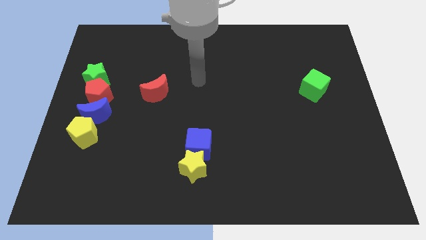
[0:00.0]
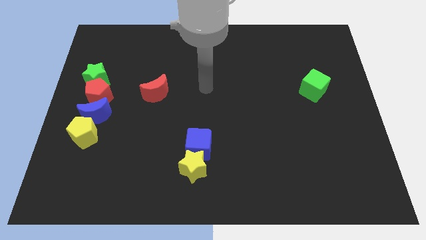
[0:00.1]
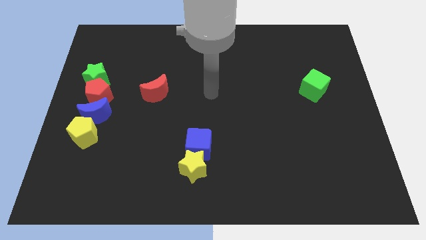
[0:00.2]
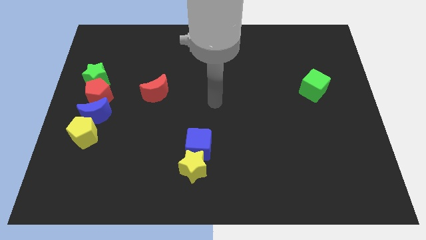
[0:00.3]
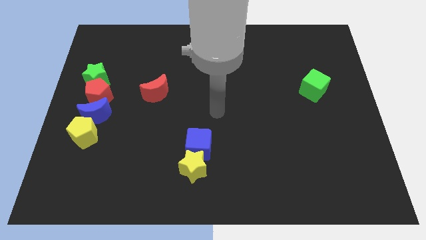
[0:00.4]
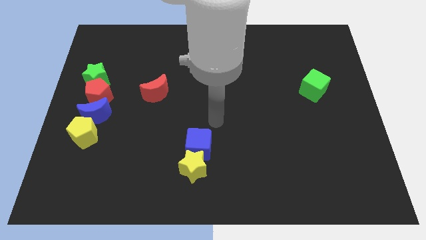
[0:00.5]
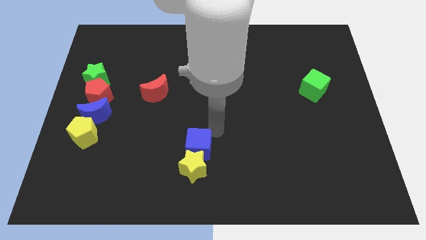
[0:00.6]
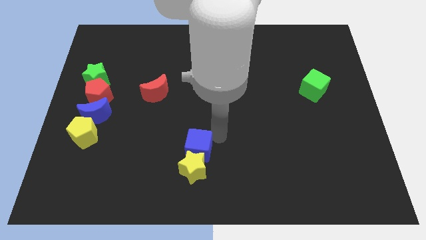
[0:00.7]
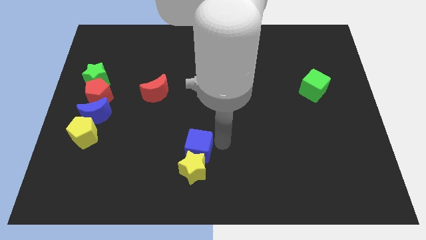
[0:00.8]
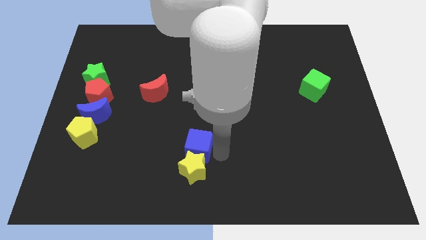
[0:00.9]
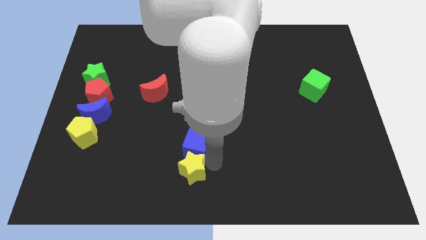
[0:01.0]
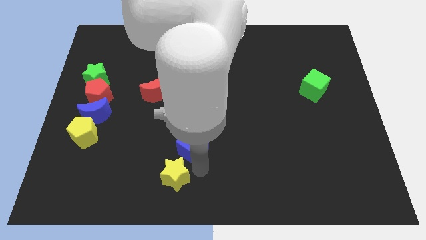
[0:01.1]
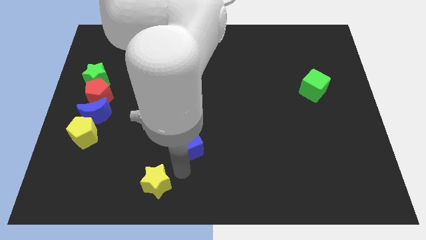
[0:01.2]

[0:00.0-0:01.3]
pull the blue cube apart from the yellow star

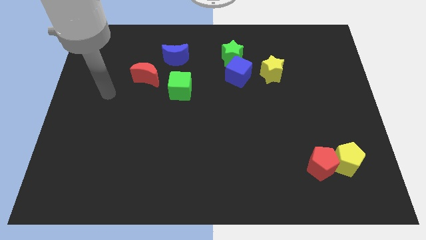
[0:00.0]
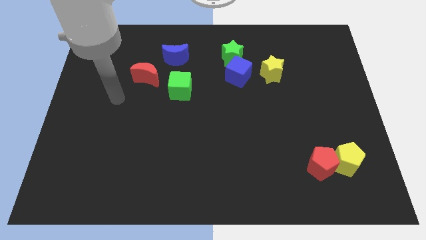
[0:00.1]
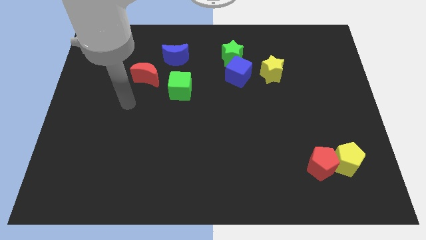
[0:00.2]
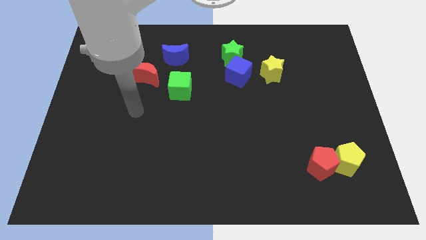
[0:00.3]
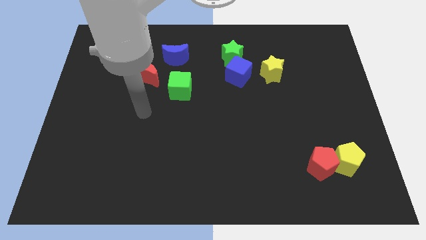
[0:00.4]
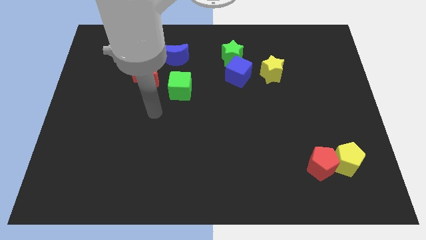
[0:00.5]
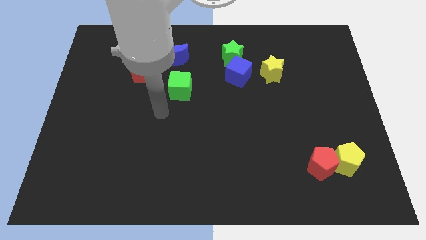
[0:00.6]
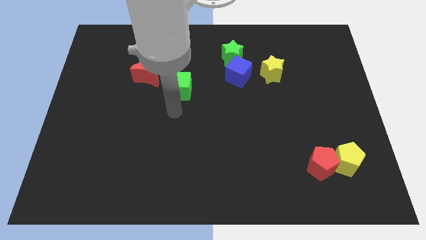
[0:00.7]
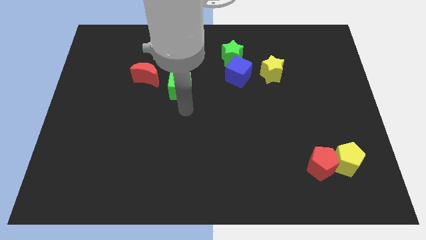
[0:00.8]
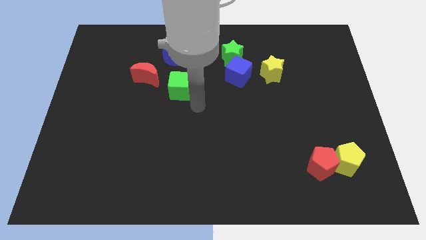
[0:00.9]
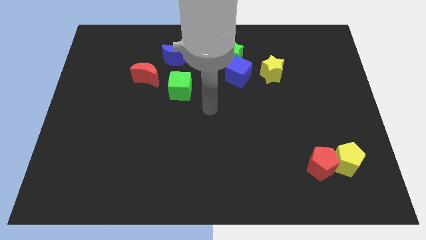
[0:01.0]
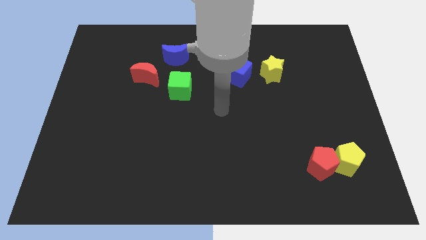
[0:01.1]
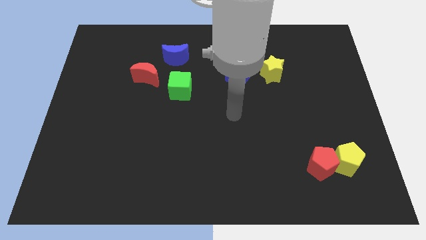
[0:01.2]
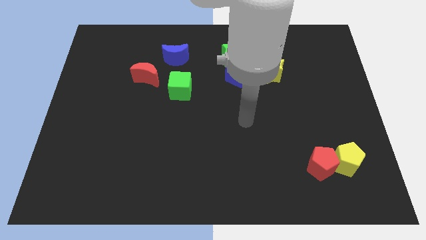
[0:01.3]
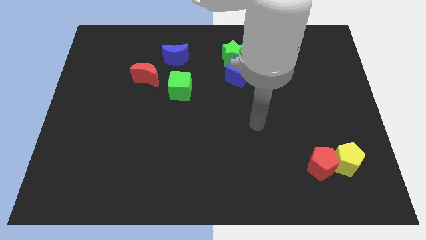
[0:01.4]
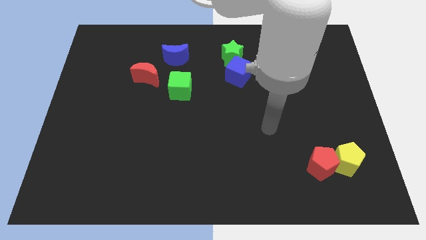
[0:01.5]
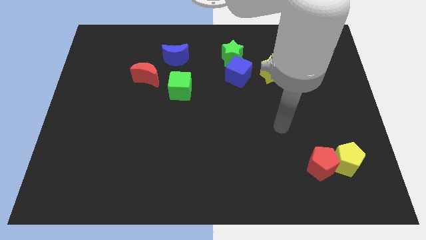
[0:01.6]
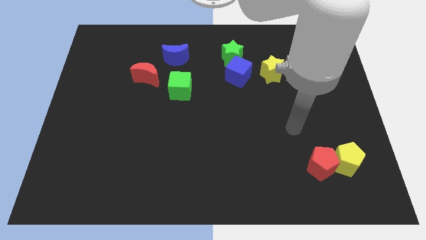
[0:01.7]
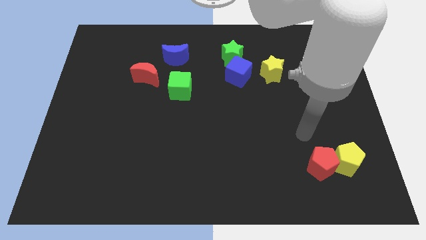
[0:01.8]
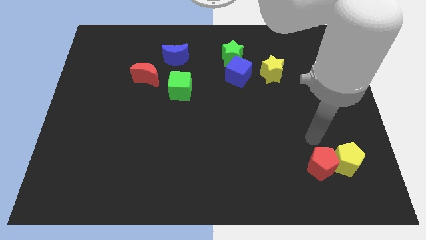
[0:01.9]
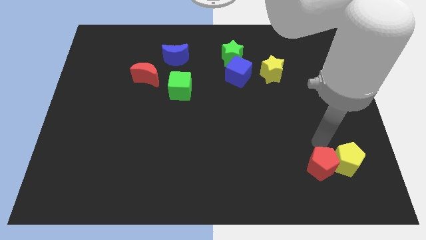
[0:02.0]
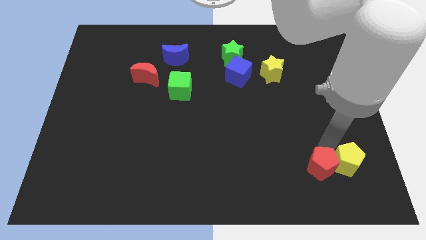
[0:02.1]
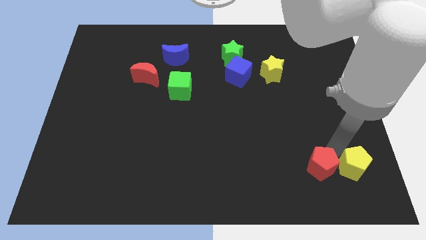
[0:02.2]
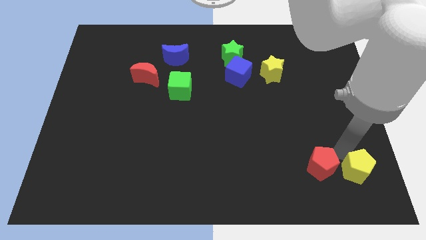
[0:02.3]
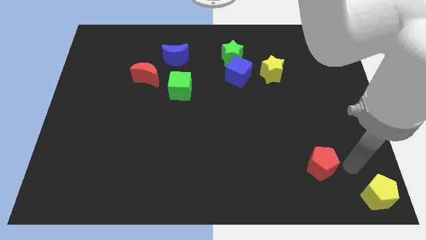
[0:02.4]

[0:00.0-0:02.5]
pull the red pentagon apart from the yellow pentagon

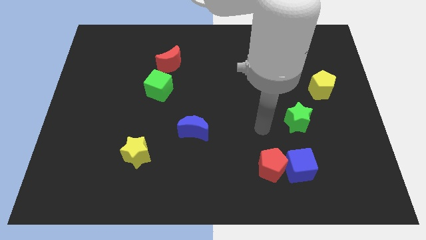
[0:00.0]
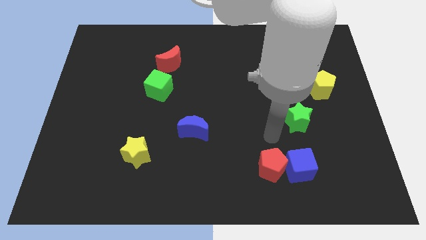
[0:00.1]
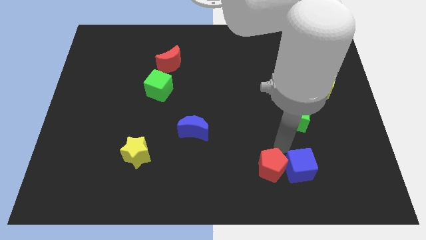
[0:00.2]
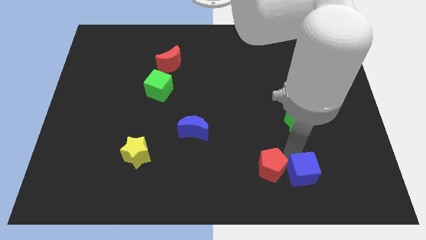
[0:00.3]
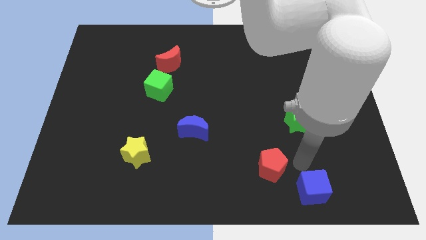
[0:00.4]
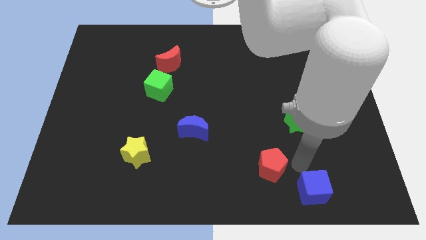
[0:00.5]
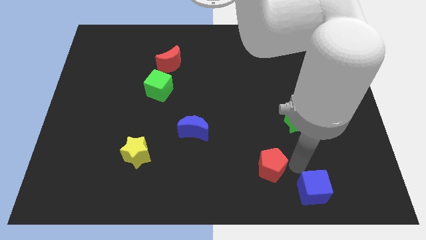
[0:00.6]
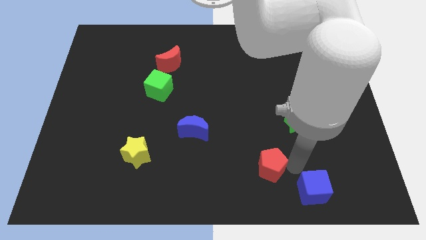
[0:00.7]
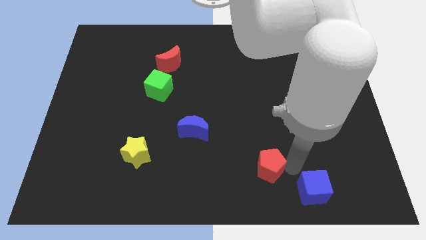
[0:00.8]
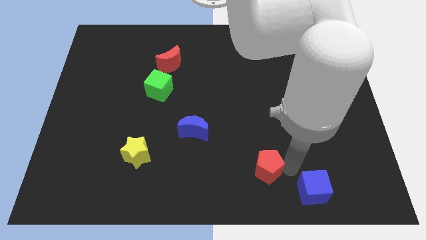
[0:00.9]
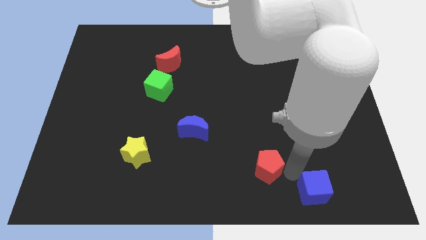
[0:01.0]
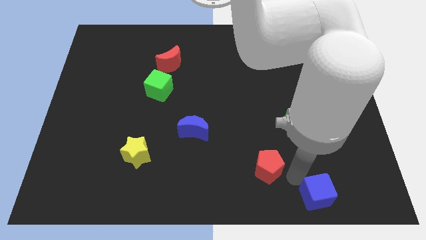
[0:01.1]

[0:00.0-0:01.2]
pull the red pentagon apart from the blue cube

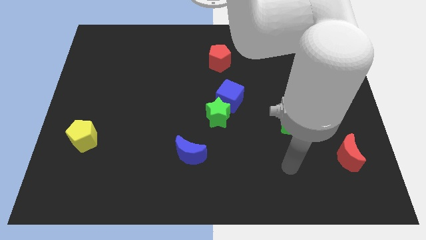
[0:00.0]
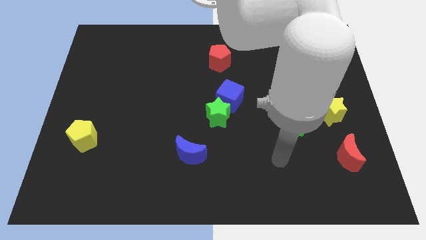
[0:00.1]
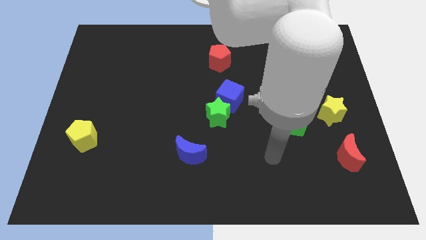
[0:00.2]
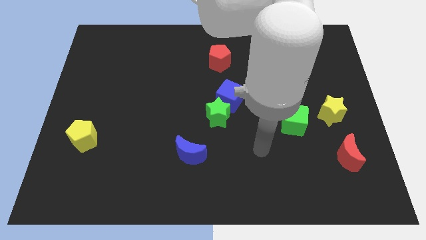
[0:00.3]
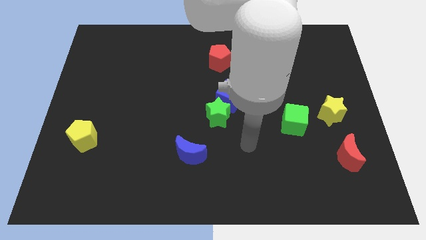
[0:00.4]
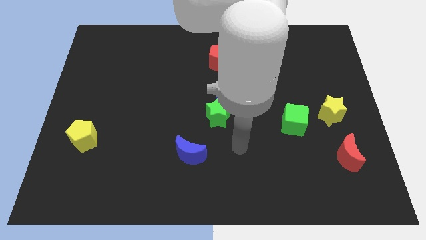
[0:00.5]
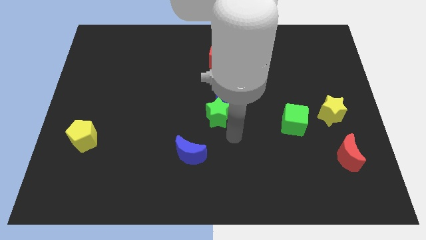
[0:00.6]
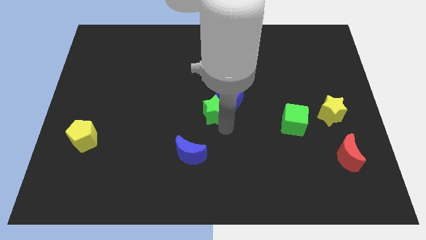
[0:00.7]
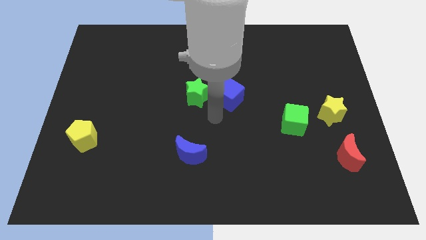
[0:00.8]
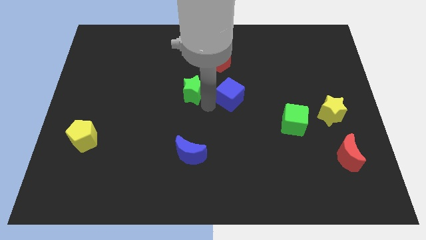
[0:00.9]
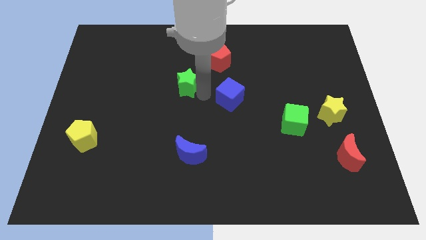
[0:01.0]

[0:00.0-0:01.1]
separate the blue cube from the green star

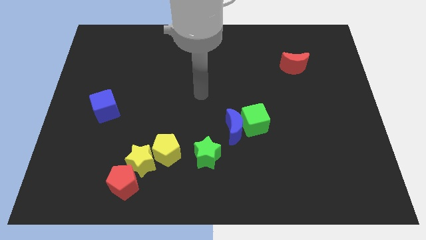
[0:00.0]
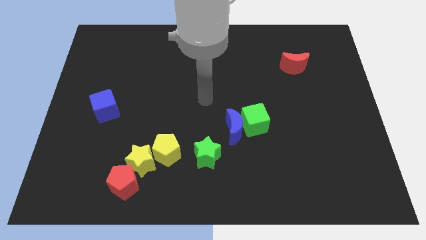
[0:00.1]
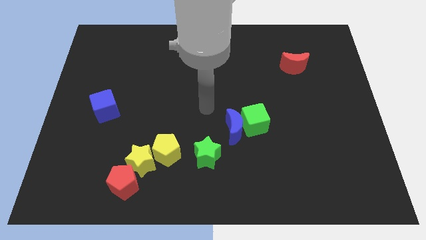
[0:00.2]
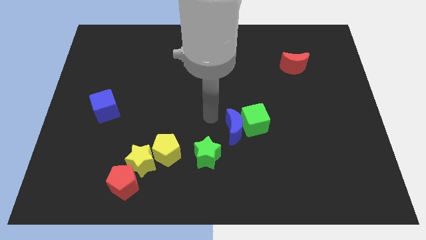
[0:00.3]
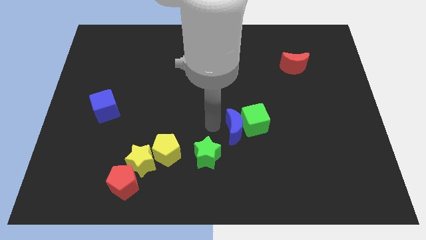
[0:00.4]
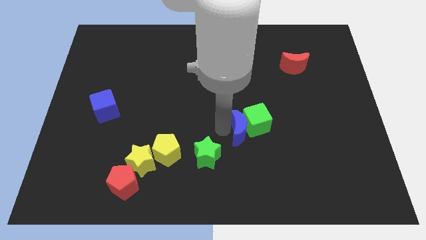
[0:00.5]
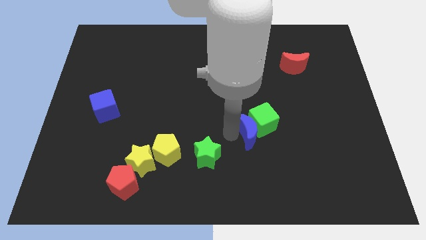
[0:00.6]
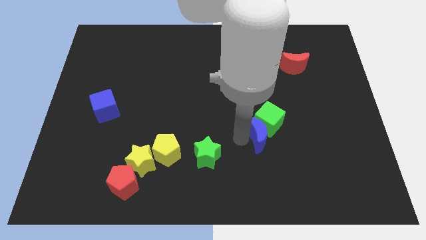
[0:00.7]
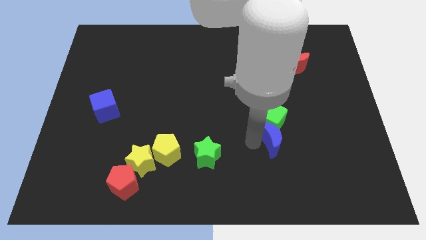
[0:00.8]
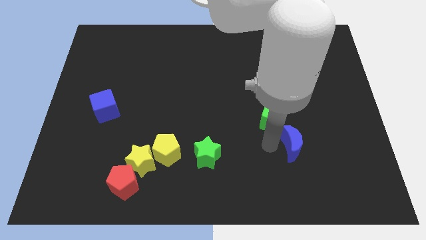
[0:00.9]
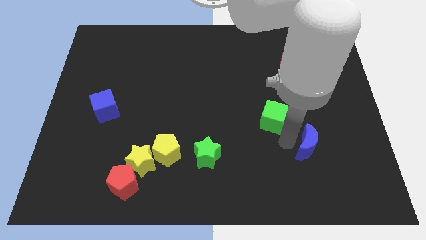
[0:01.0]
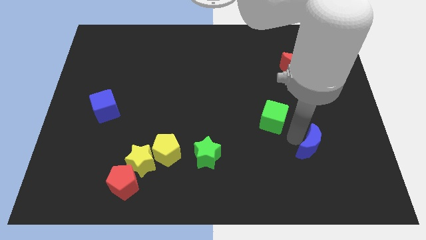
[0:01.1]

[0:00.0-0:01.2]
separate the green cube from the blue moon

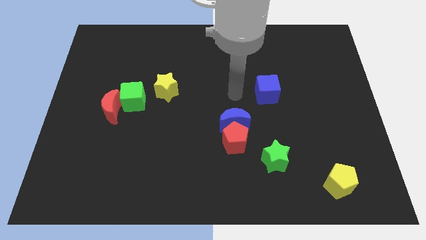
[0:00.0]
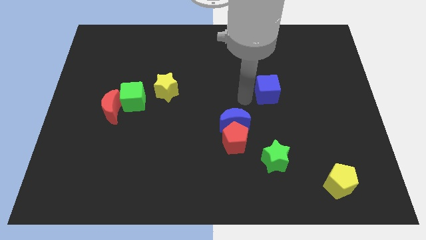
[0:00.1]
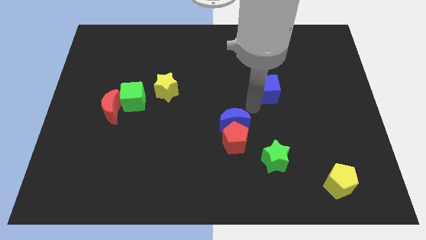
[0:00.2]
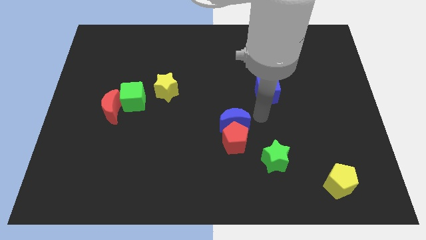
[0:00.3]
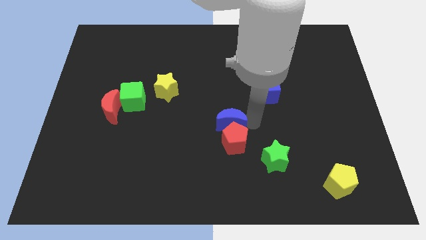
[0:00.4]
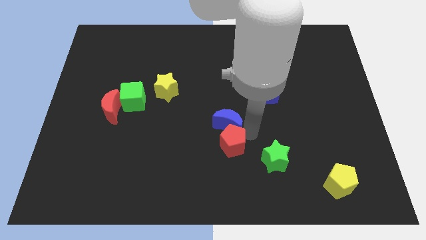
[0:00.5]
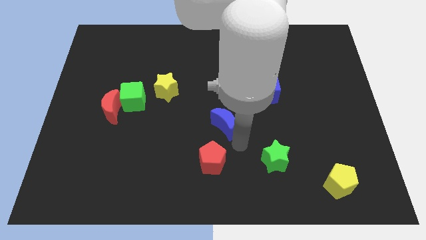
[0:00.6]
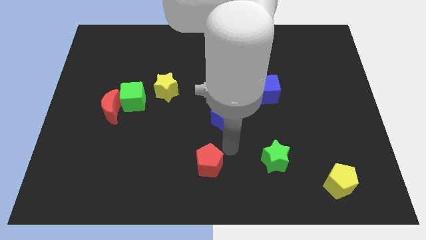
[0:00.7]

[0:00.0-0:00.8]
move the blue moon away from the red pentagon

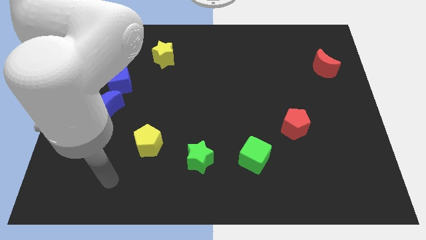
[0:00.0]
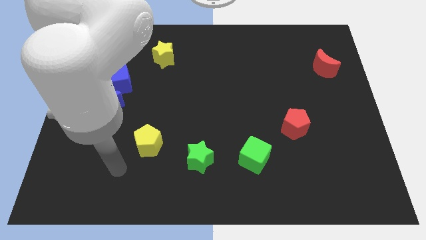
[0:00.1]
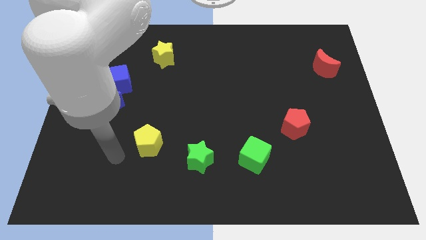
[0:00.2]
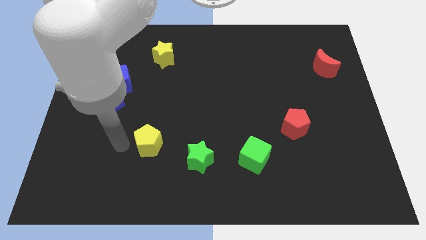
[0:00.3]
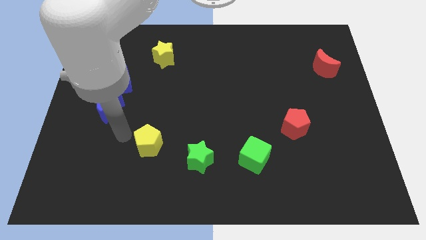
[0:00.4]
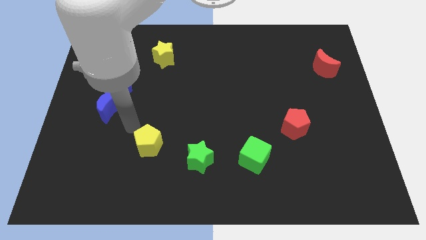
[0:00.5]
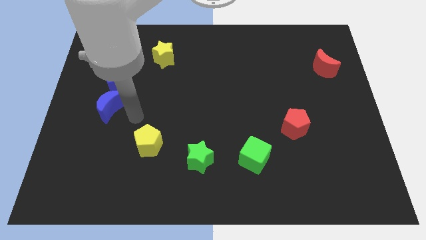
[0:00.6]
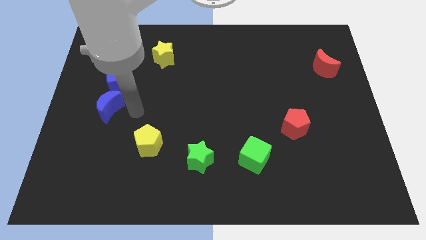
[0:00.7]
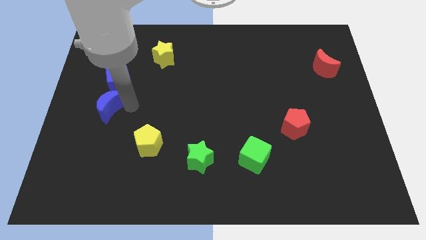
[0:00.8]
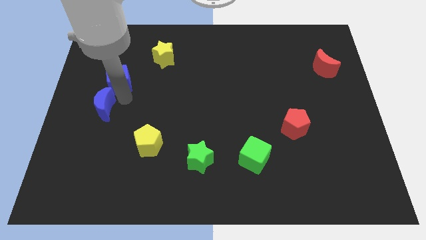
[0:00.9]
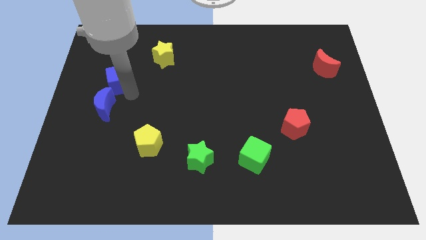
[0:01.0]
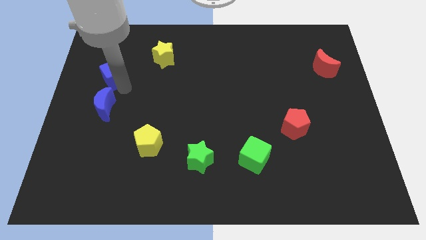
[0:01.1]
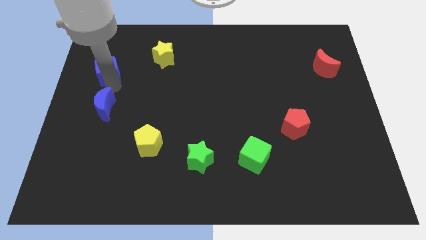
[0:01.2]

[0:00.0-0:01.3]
pull the blue moon apart from the blue cube
